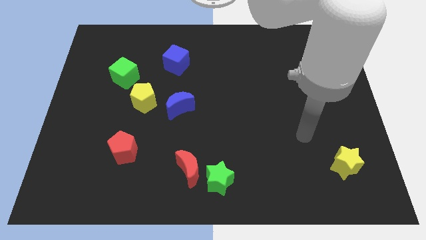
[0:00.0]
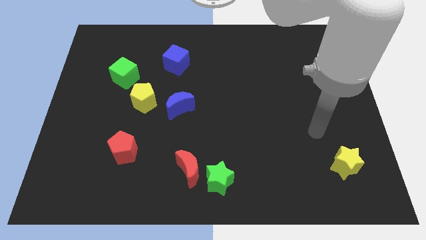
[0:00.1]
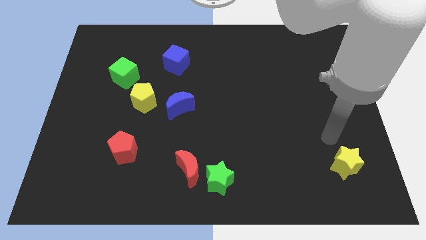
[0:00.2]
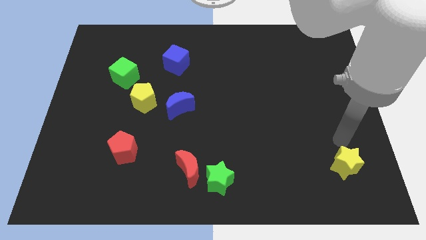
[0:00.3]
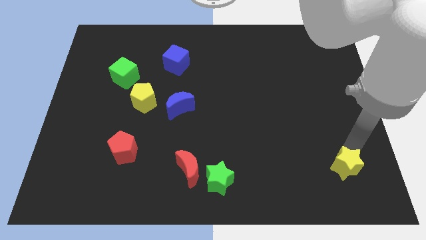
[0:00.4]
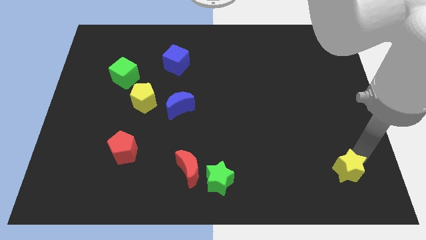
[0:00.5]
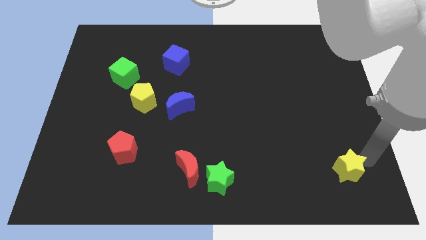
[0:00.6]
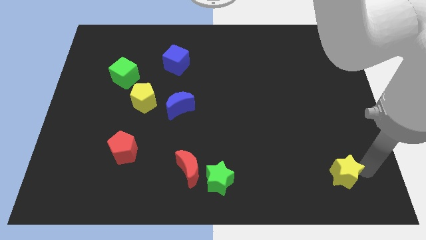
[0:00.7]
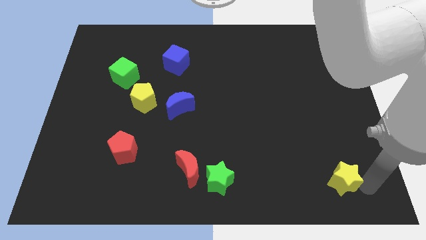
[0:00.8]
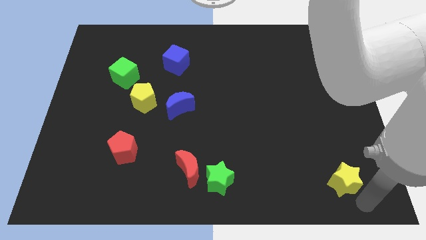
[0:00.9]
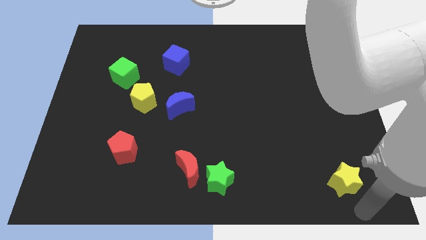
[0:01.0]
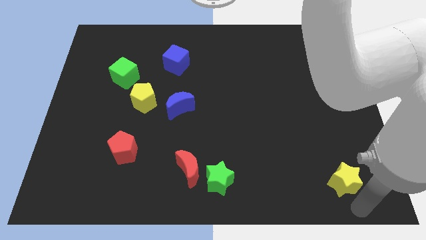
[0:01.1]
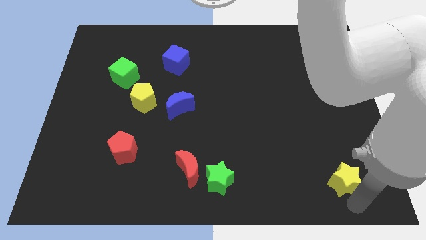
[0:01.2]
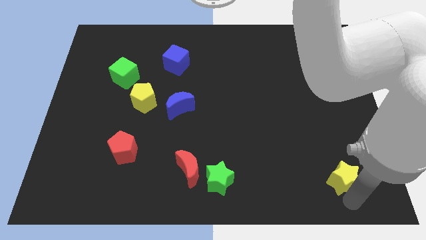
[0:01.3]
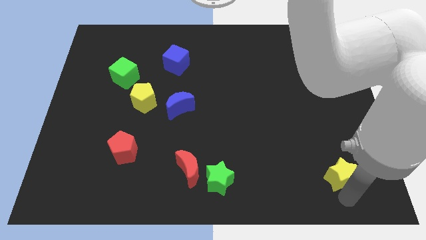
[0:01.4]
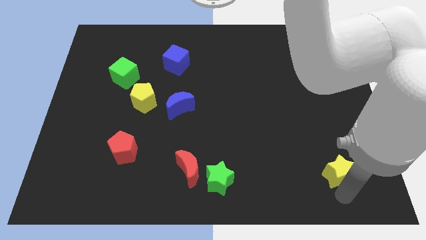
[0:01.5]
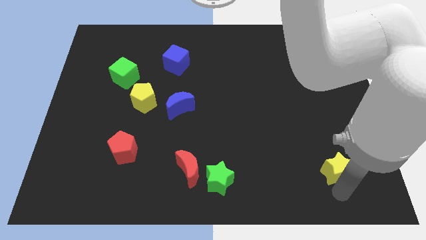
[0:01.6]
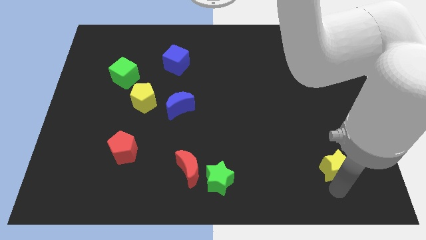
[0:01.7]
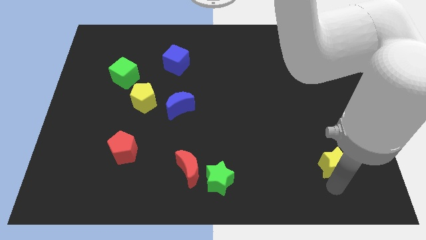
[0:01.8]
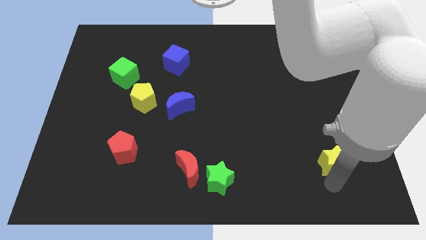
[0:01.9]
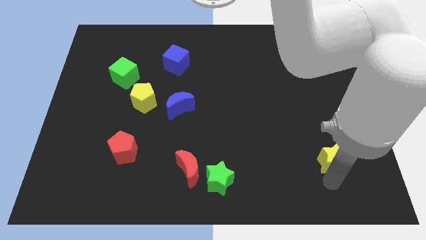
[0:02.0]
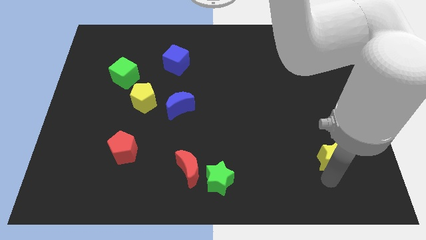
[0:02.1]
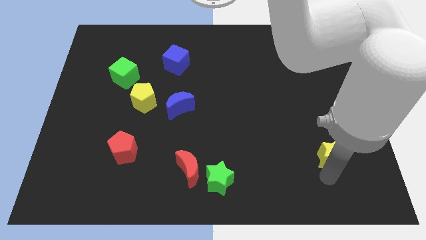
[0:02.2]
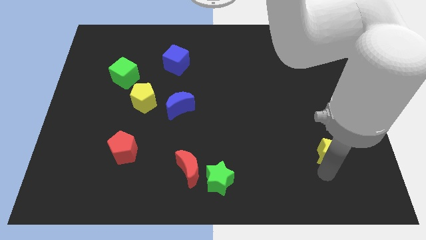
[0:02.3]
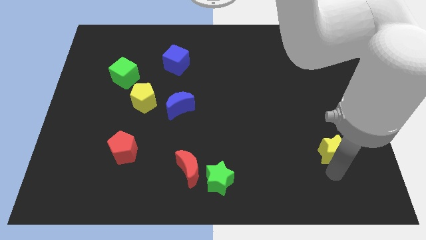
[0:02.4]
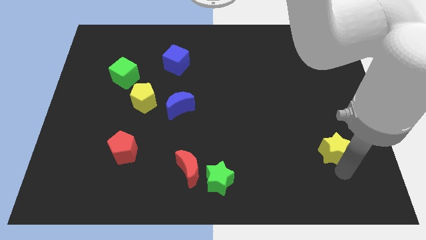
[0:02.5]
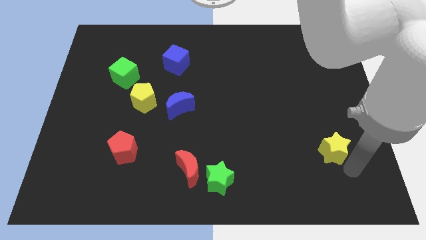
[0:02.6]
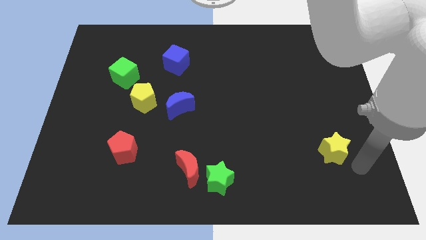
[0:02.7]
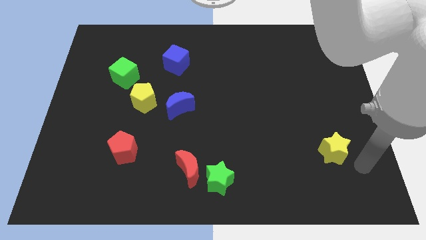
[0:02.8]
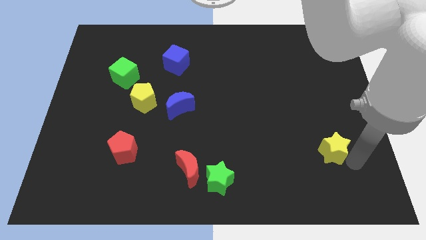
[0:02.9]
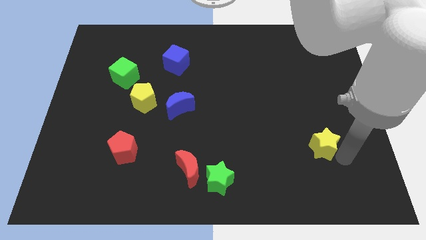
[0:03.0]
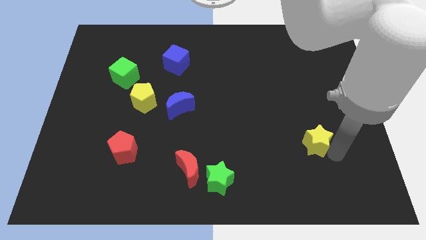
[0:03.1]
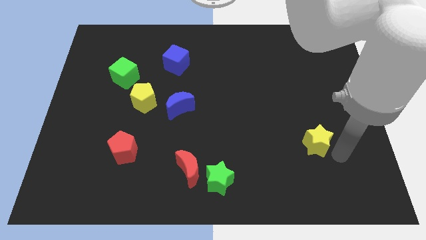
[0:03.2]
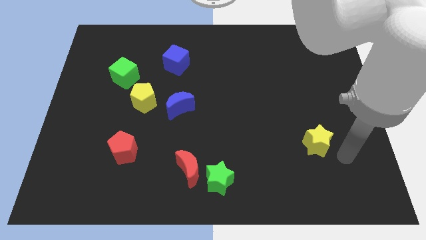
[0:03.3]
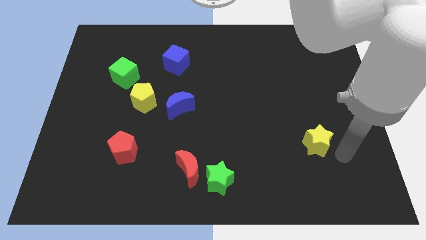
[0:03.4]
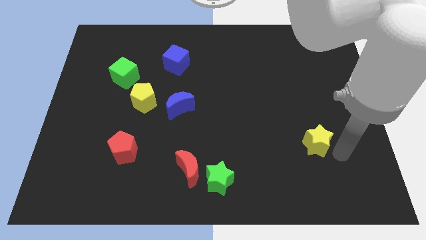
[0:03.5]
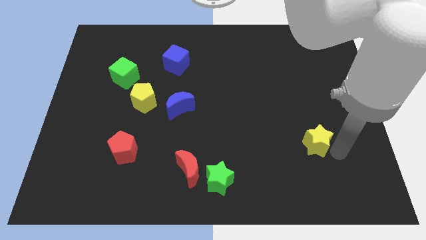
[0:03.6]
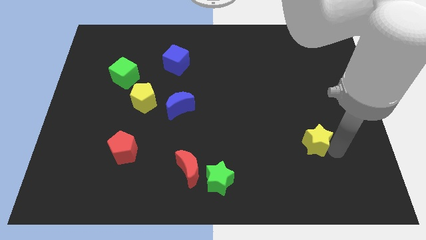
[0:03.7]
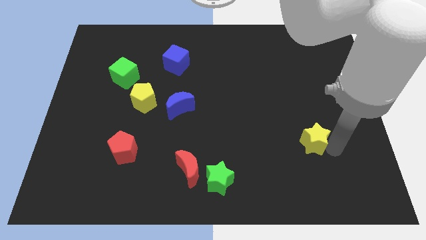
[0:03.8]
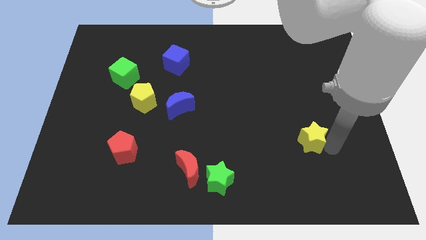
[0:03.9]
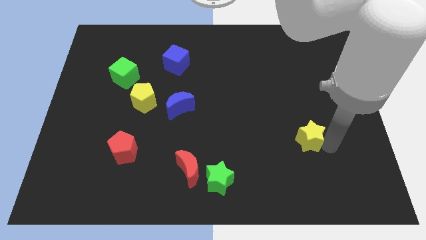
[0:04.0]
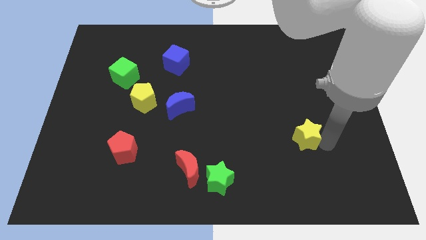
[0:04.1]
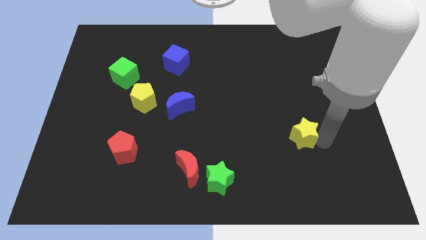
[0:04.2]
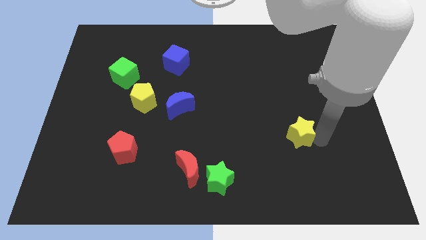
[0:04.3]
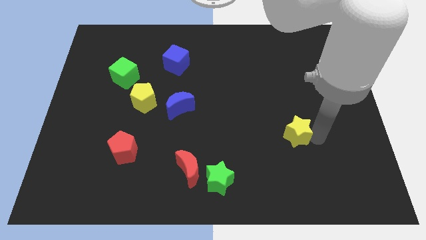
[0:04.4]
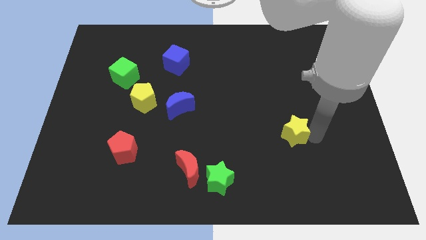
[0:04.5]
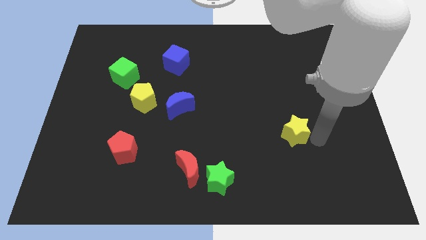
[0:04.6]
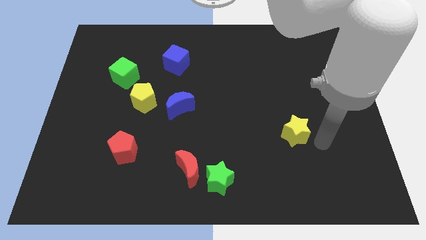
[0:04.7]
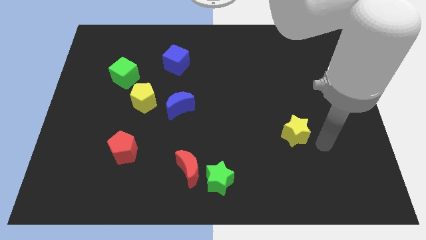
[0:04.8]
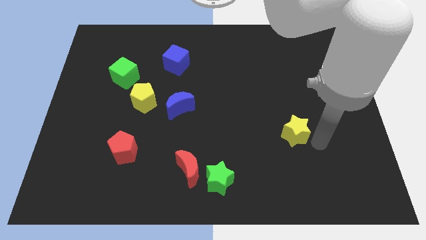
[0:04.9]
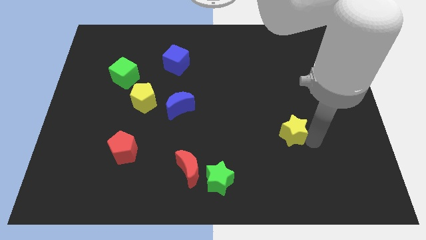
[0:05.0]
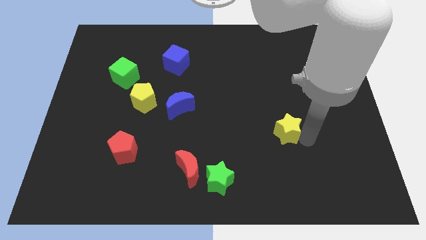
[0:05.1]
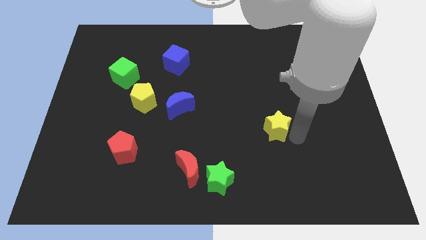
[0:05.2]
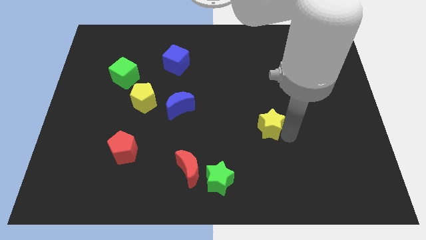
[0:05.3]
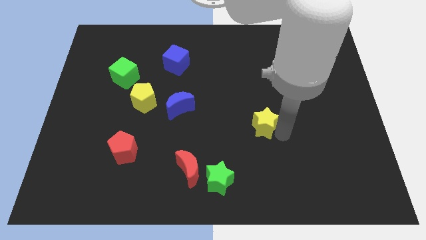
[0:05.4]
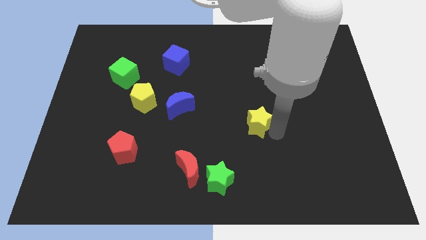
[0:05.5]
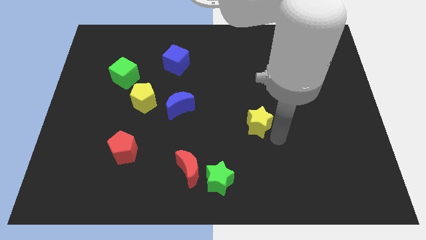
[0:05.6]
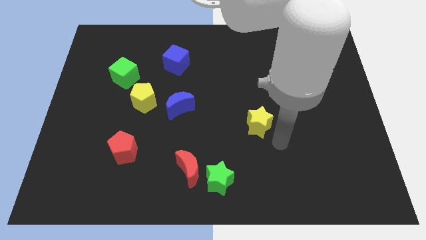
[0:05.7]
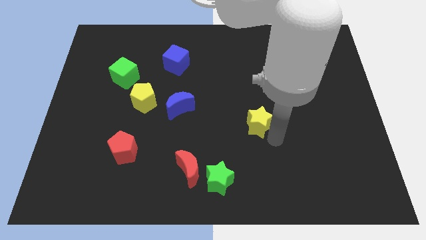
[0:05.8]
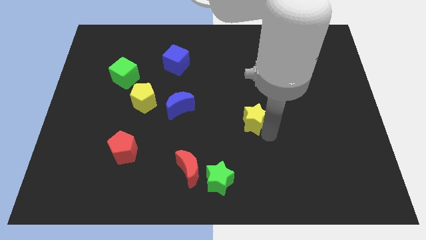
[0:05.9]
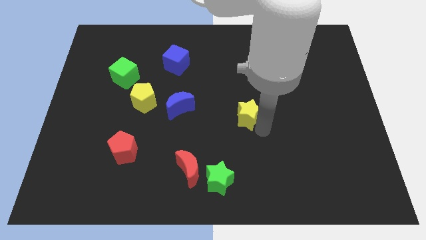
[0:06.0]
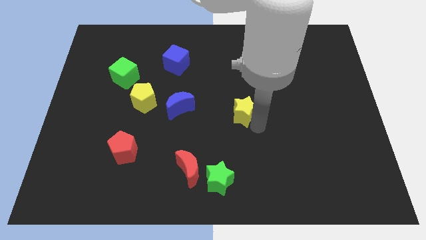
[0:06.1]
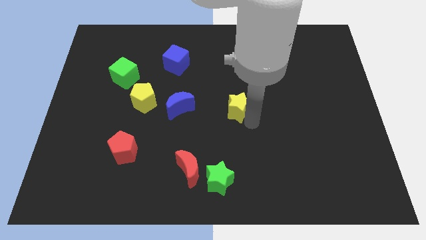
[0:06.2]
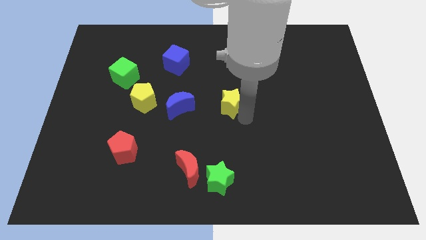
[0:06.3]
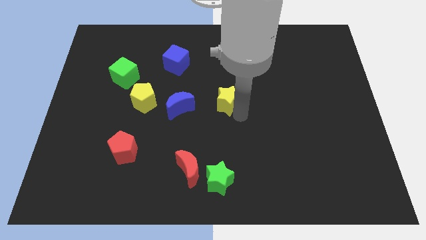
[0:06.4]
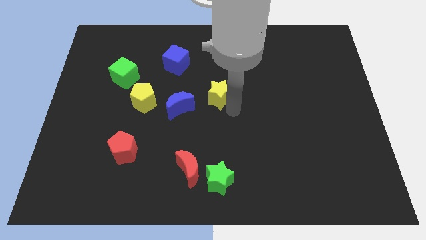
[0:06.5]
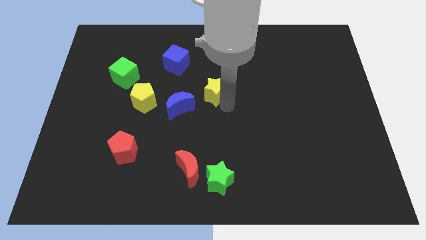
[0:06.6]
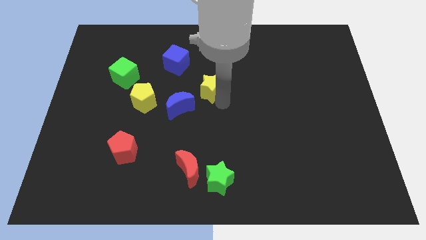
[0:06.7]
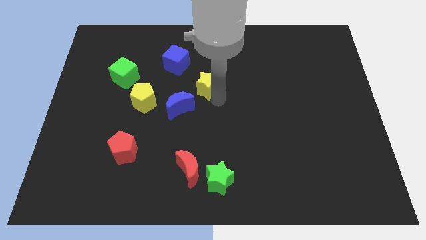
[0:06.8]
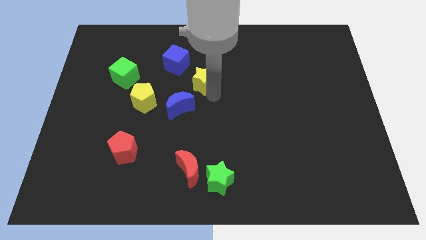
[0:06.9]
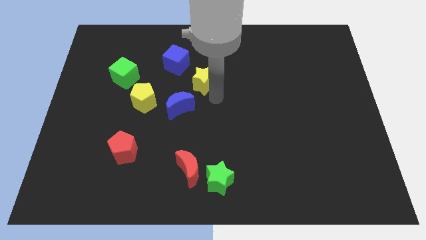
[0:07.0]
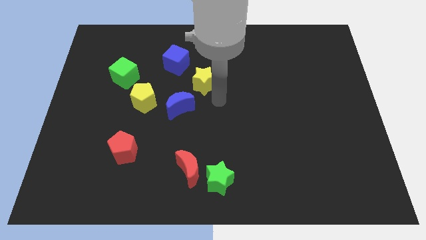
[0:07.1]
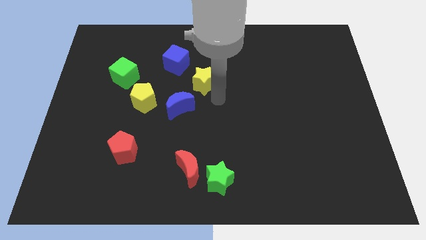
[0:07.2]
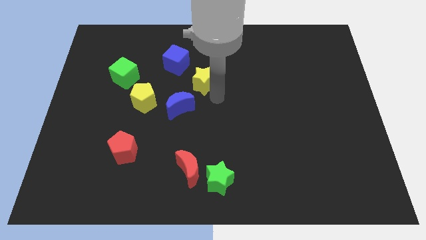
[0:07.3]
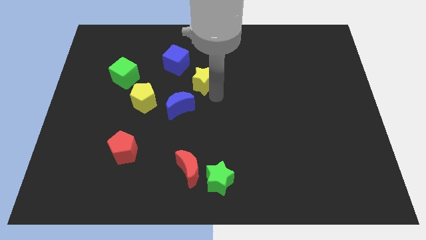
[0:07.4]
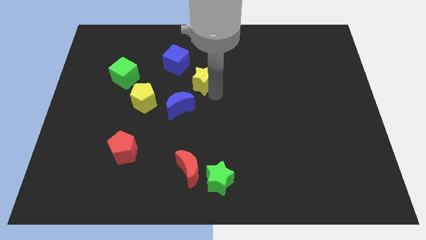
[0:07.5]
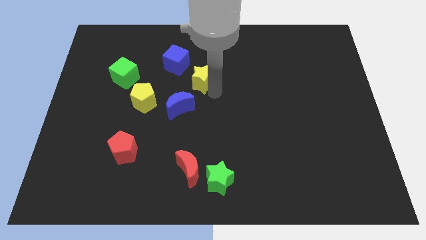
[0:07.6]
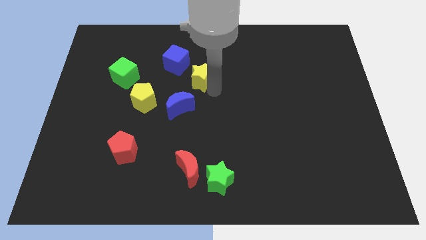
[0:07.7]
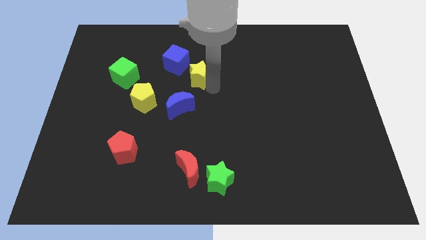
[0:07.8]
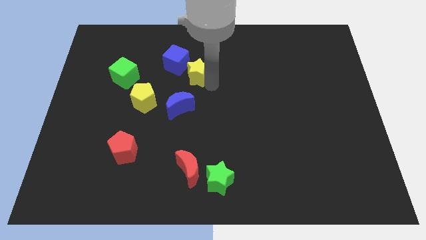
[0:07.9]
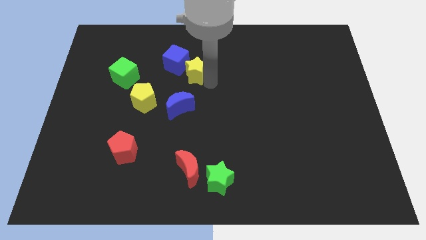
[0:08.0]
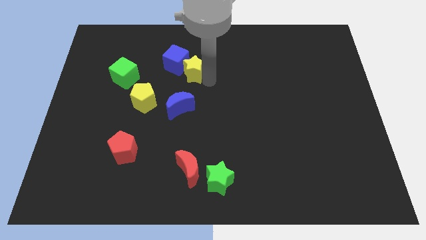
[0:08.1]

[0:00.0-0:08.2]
slide the yellow star close to the blue cube

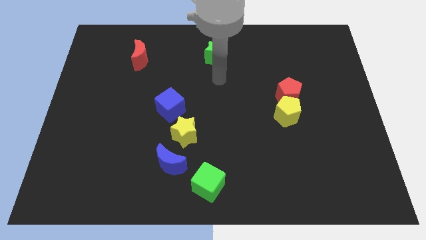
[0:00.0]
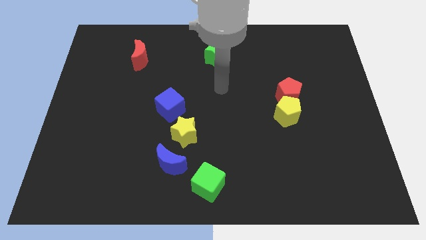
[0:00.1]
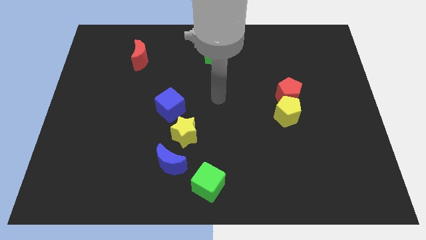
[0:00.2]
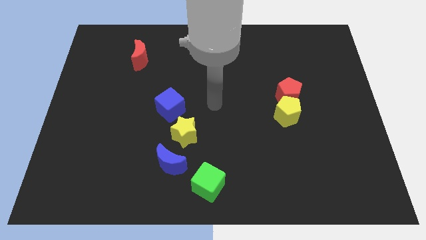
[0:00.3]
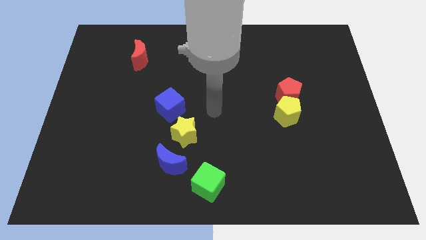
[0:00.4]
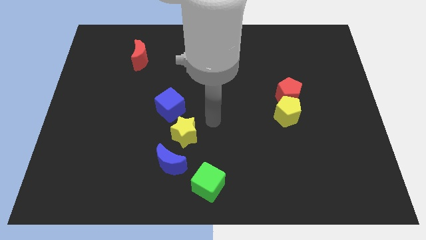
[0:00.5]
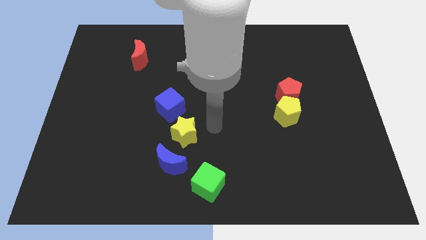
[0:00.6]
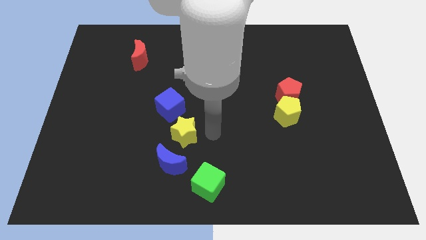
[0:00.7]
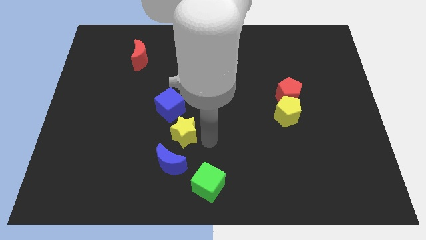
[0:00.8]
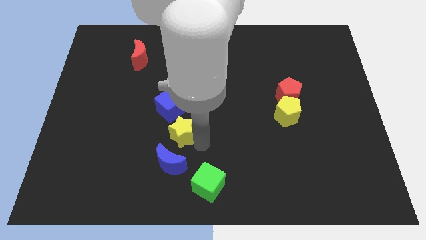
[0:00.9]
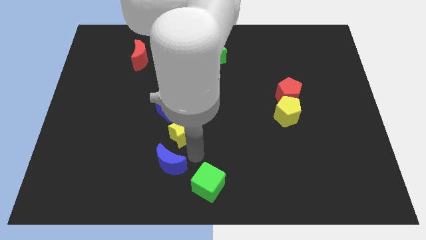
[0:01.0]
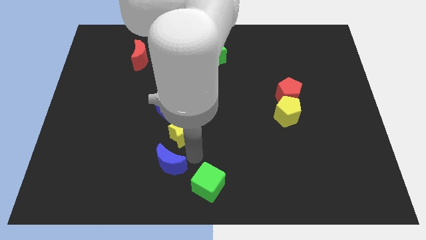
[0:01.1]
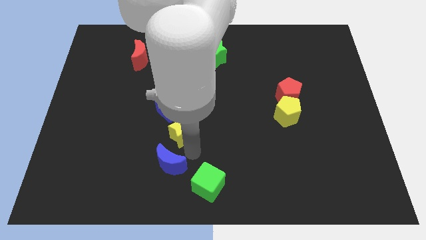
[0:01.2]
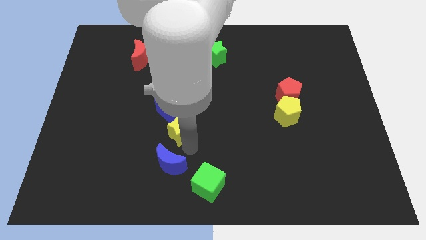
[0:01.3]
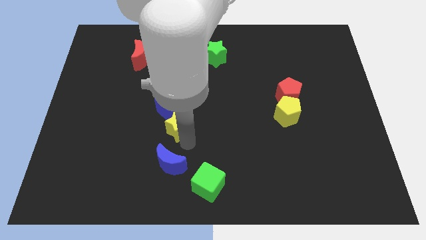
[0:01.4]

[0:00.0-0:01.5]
move the yellow star next to the blue cube
